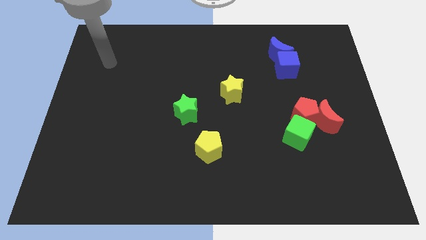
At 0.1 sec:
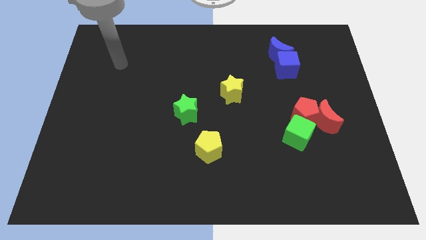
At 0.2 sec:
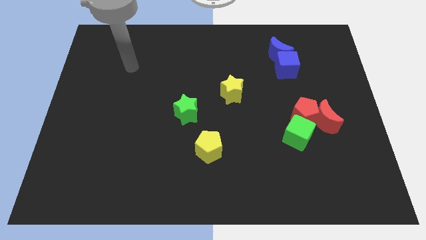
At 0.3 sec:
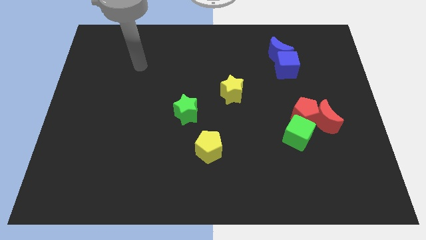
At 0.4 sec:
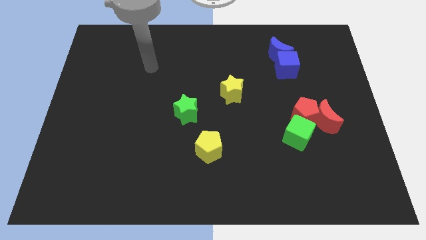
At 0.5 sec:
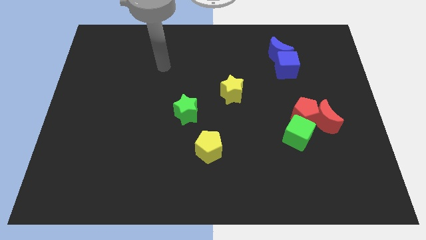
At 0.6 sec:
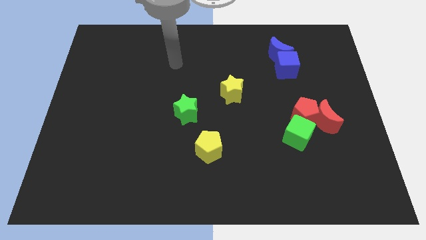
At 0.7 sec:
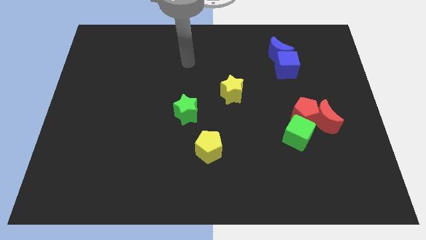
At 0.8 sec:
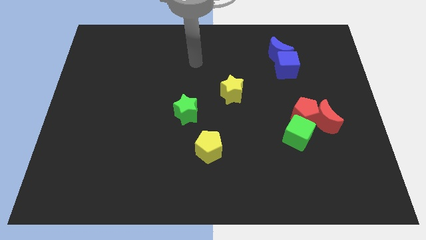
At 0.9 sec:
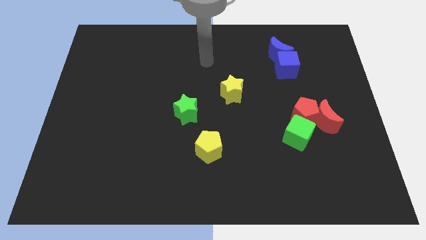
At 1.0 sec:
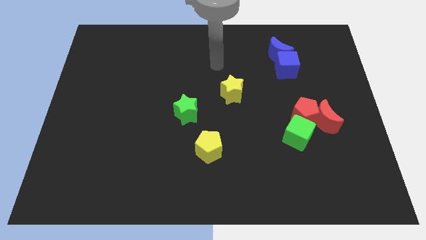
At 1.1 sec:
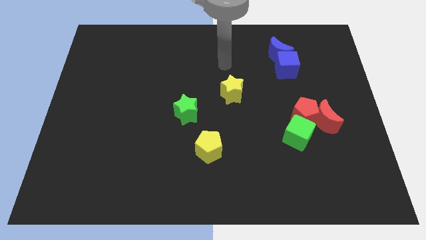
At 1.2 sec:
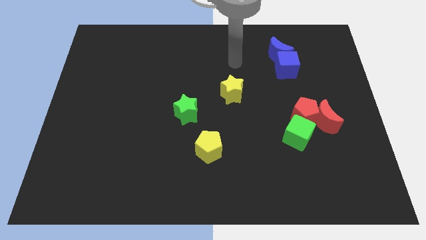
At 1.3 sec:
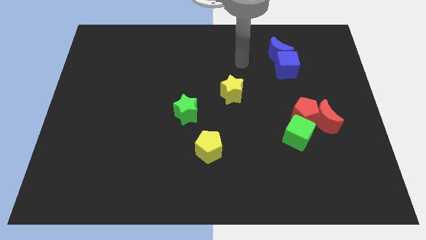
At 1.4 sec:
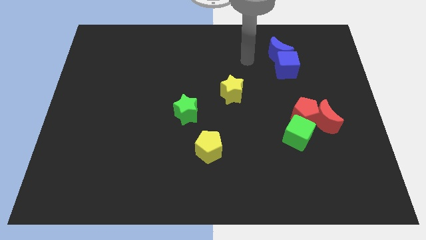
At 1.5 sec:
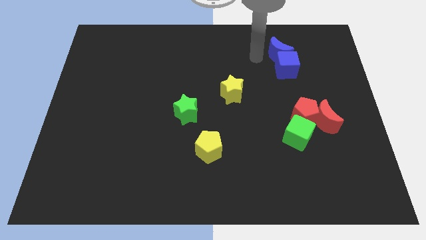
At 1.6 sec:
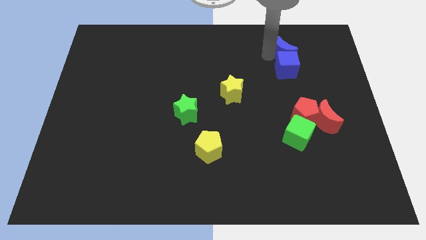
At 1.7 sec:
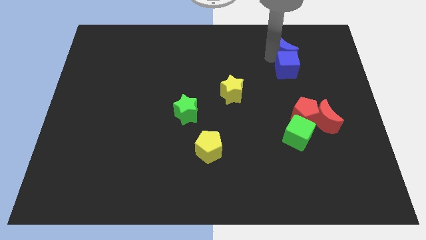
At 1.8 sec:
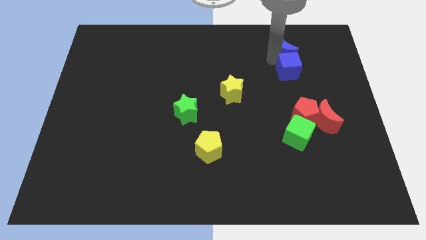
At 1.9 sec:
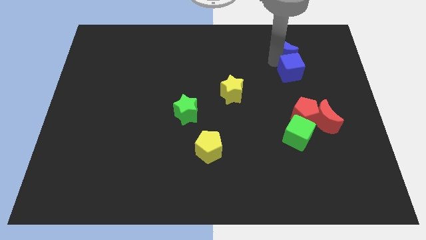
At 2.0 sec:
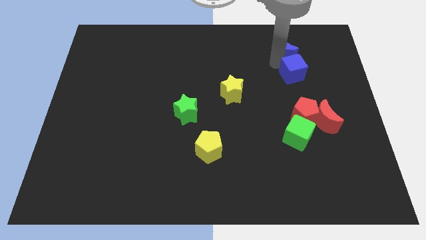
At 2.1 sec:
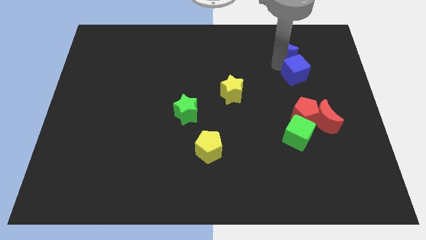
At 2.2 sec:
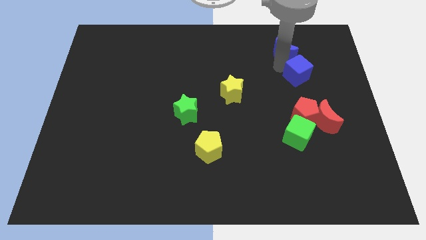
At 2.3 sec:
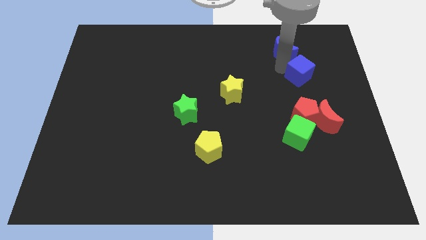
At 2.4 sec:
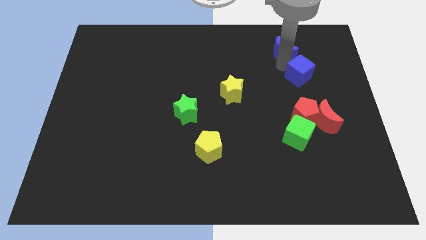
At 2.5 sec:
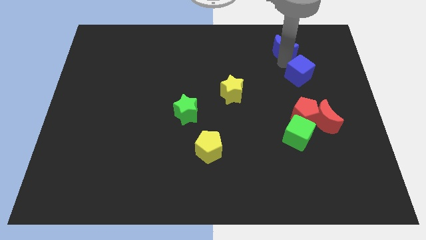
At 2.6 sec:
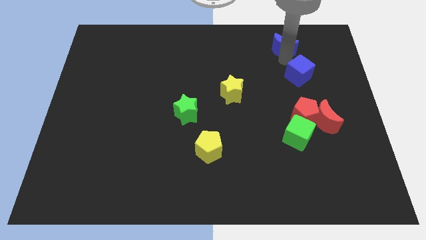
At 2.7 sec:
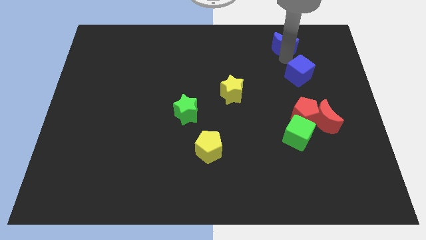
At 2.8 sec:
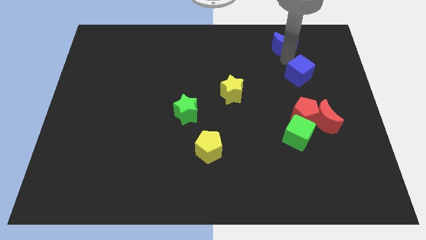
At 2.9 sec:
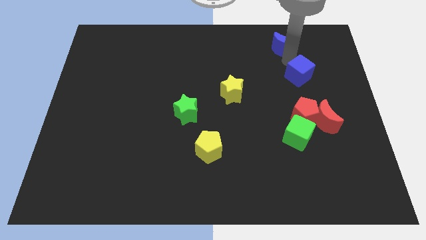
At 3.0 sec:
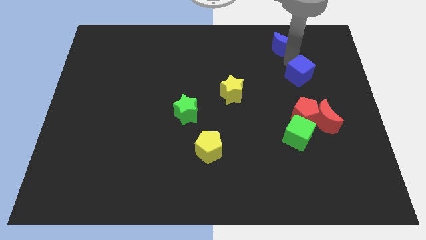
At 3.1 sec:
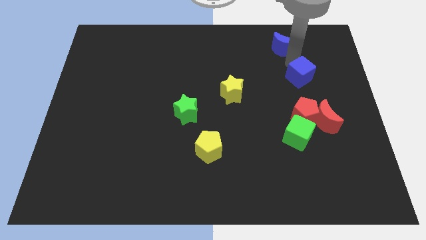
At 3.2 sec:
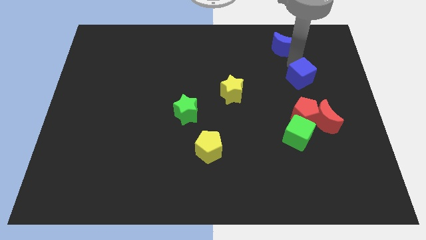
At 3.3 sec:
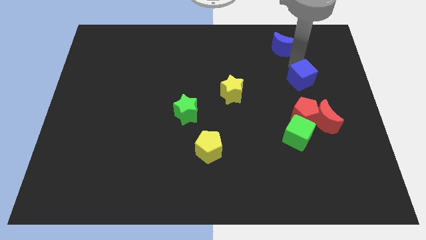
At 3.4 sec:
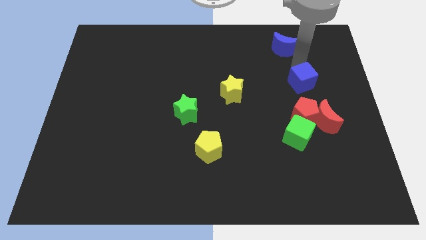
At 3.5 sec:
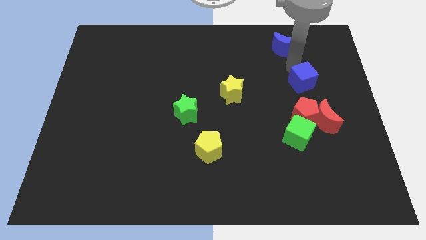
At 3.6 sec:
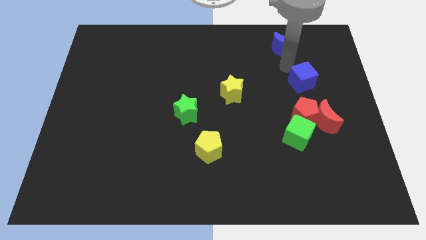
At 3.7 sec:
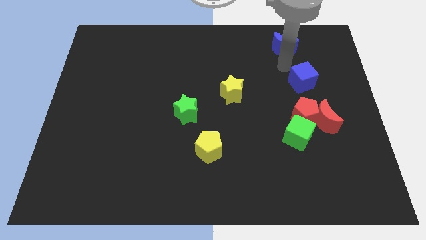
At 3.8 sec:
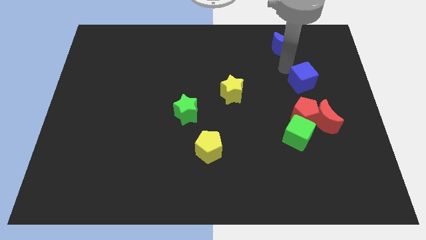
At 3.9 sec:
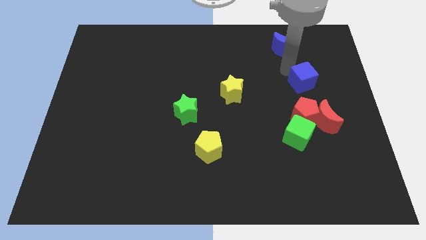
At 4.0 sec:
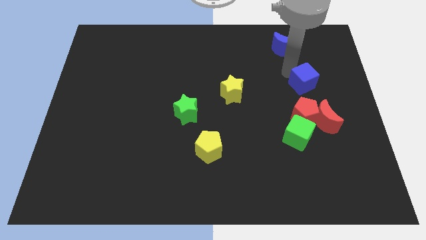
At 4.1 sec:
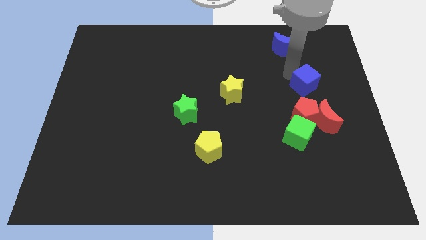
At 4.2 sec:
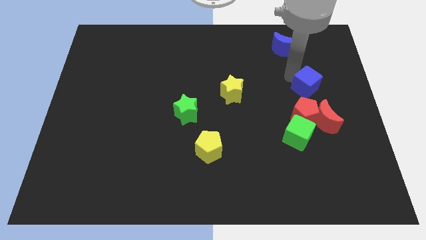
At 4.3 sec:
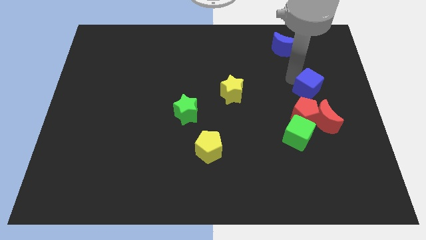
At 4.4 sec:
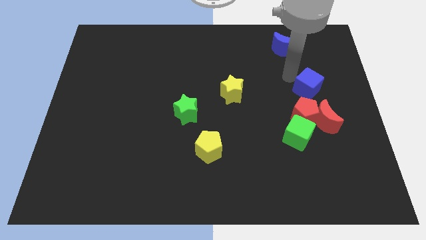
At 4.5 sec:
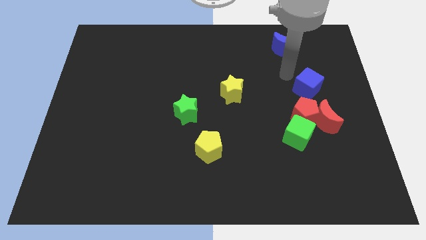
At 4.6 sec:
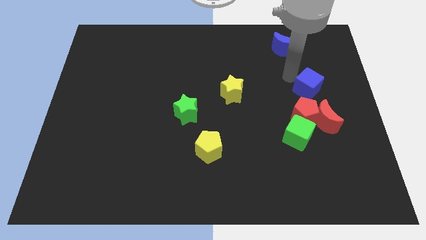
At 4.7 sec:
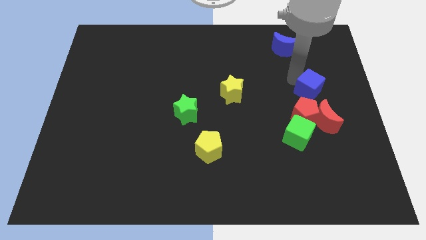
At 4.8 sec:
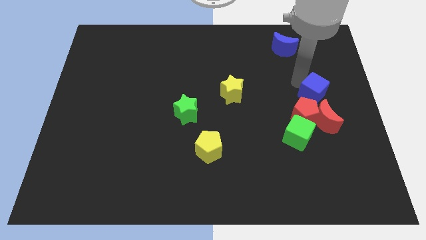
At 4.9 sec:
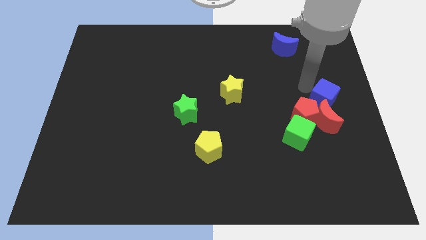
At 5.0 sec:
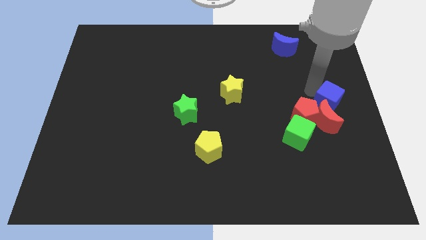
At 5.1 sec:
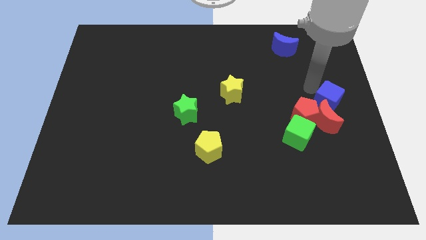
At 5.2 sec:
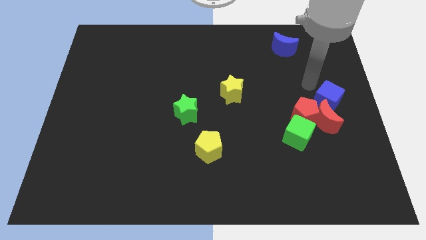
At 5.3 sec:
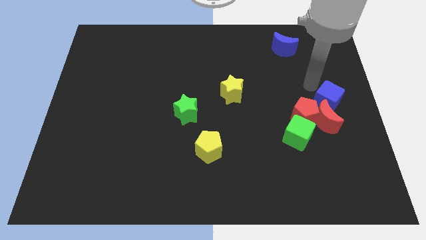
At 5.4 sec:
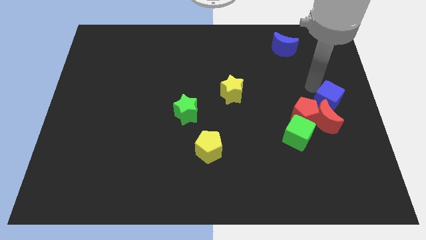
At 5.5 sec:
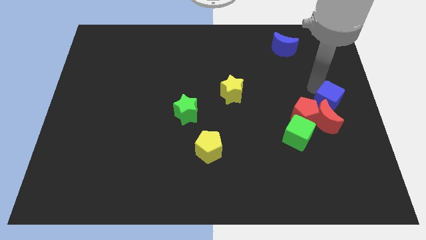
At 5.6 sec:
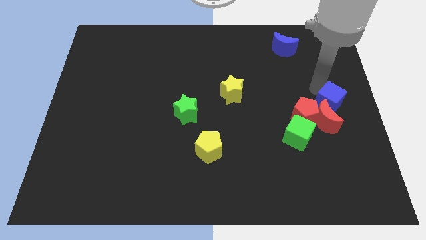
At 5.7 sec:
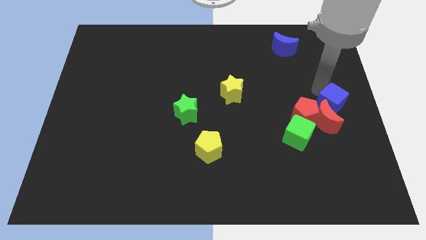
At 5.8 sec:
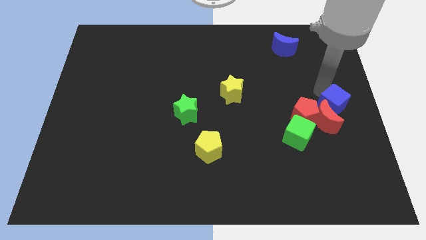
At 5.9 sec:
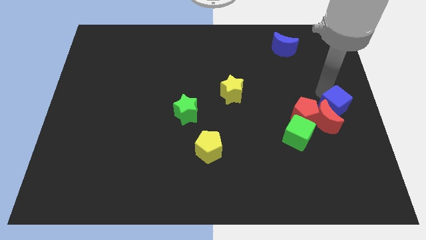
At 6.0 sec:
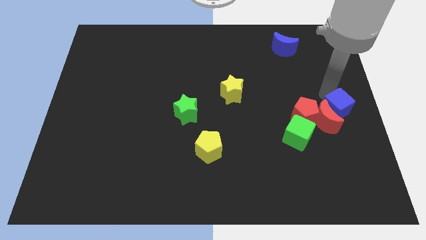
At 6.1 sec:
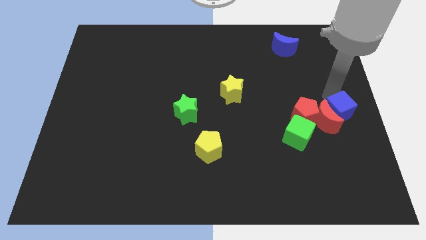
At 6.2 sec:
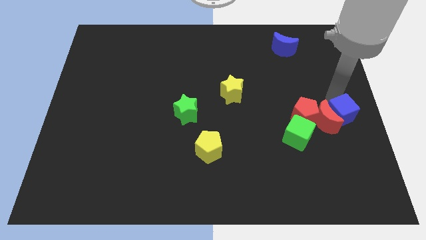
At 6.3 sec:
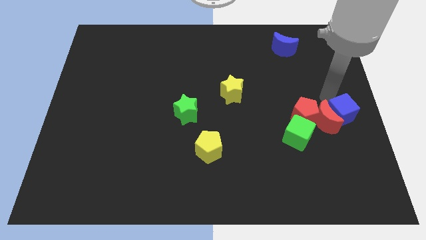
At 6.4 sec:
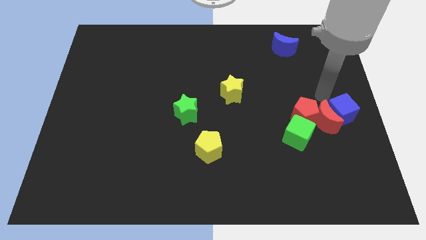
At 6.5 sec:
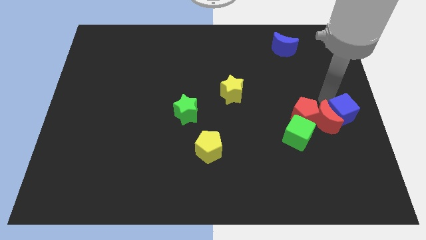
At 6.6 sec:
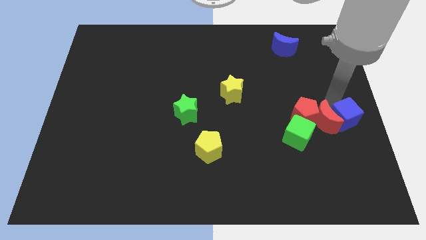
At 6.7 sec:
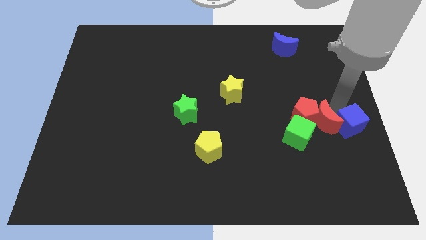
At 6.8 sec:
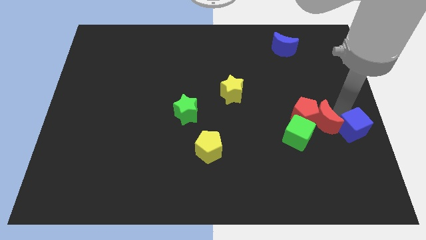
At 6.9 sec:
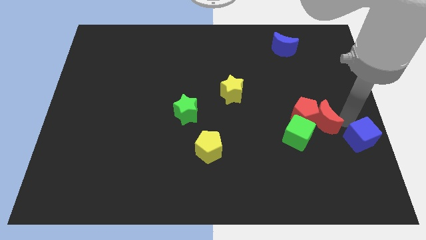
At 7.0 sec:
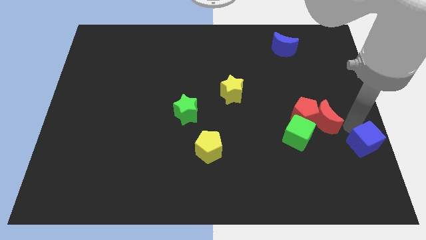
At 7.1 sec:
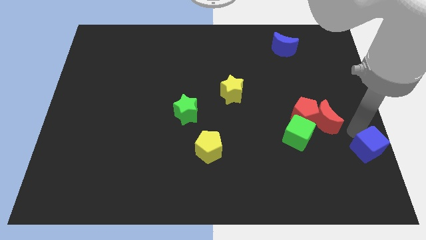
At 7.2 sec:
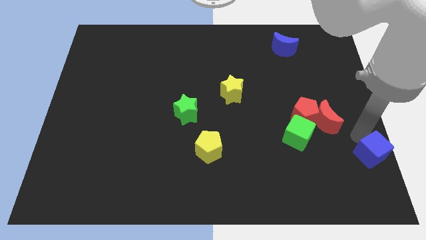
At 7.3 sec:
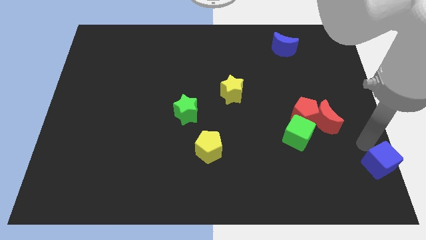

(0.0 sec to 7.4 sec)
move the blue cube to the bottom right corner

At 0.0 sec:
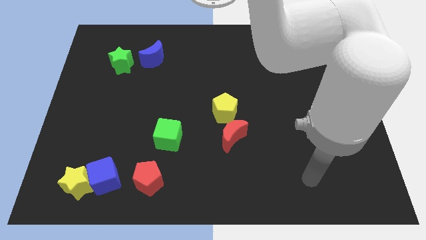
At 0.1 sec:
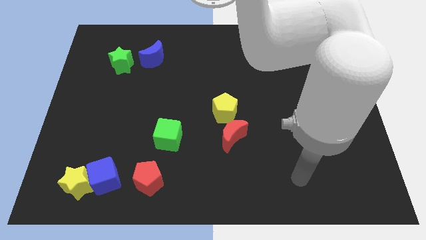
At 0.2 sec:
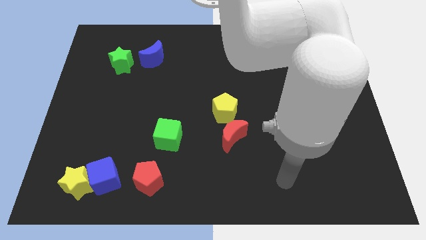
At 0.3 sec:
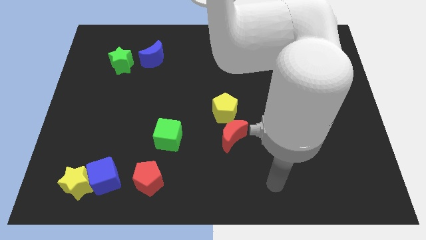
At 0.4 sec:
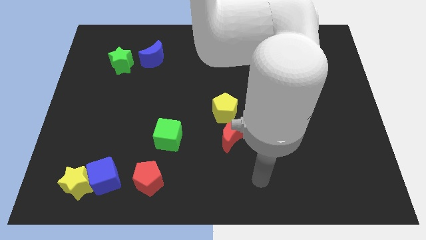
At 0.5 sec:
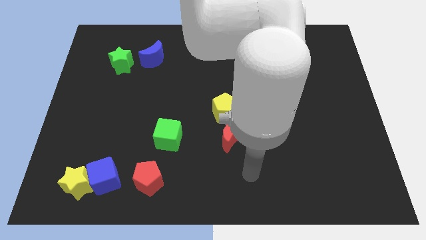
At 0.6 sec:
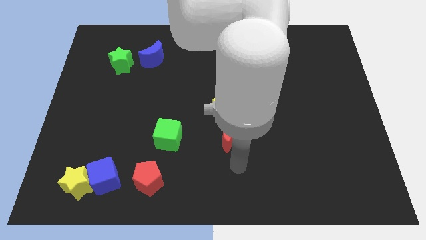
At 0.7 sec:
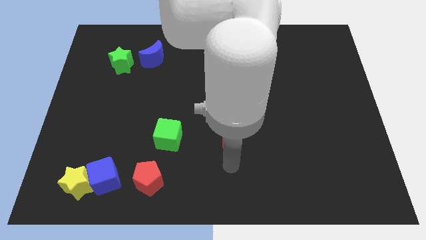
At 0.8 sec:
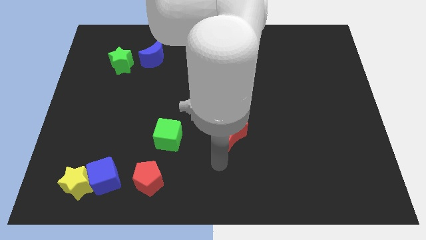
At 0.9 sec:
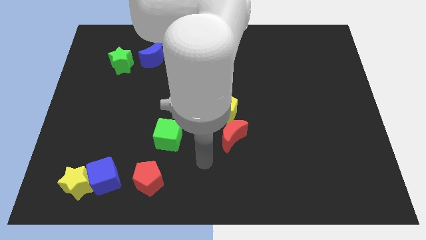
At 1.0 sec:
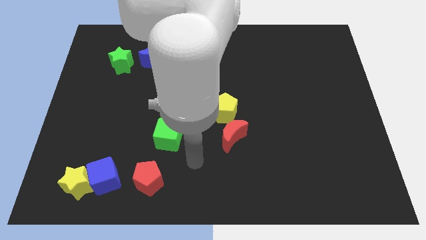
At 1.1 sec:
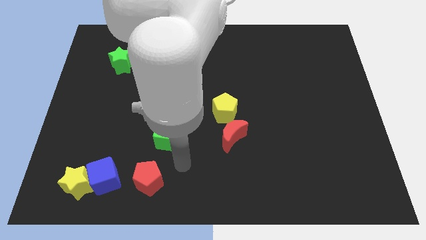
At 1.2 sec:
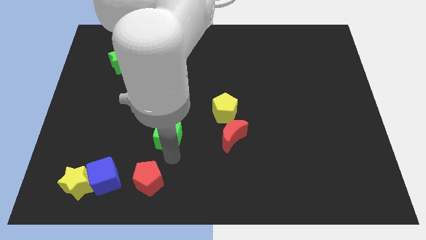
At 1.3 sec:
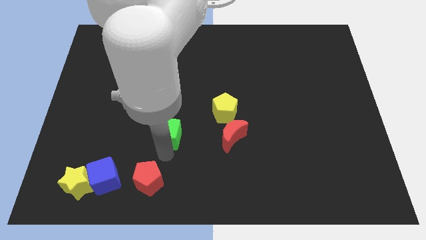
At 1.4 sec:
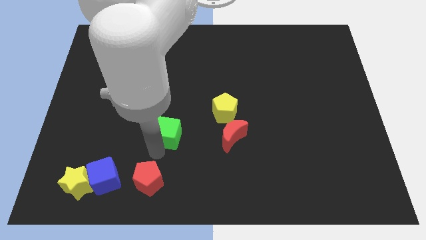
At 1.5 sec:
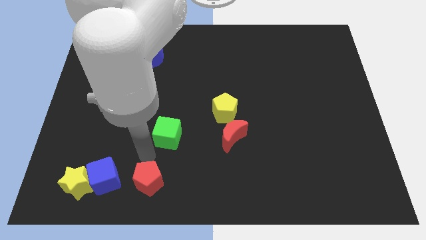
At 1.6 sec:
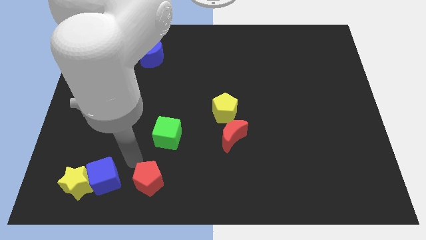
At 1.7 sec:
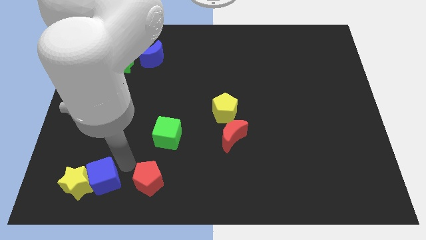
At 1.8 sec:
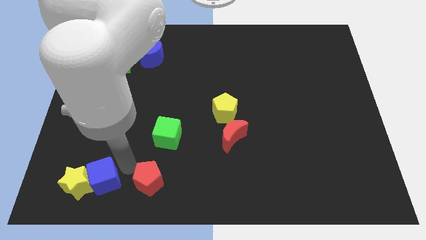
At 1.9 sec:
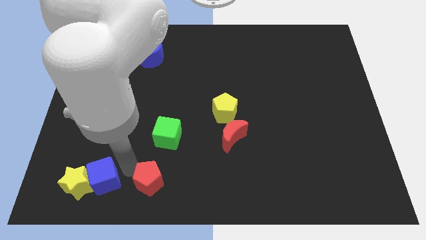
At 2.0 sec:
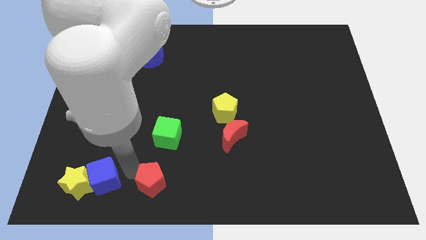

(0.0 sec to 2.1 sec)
slide the red pentagon to the bottom side
